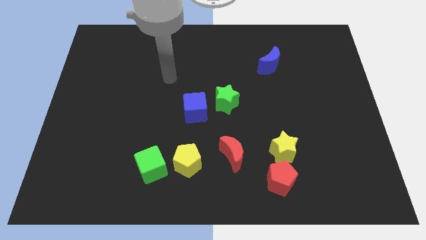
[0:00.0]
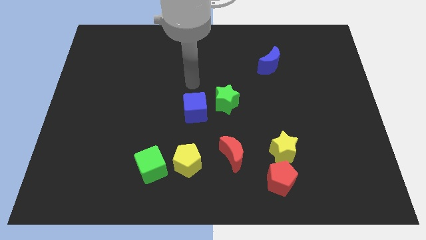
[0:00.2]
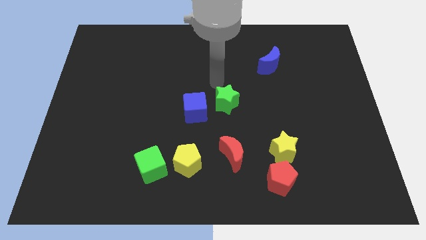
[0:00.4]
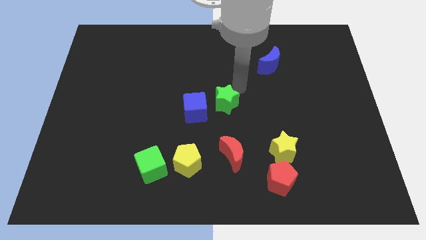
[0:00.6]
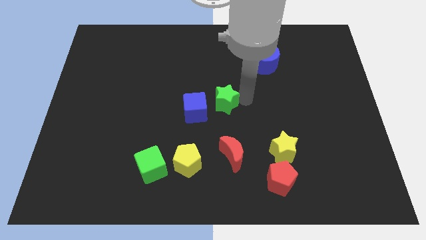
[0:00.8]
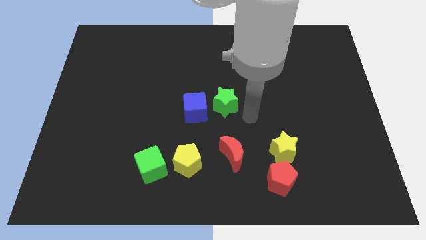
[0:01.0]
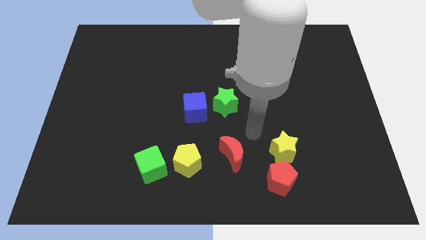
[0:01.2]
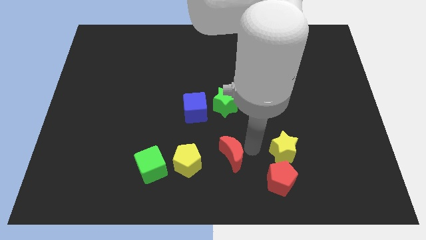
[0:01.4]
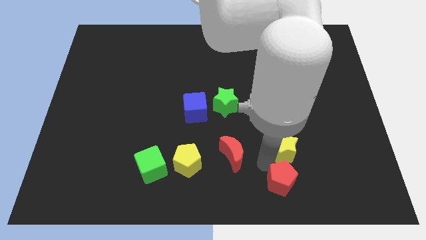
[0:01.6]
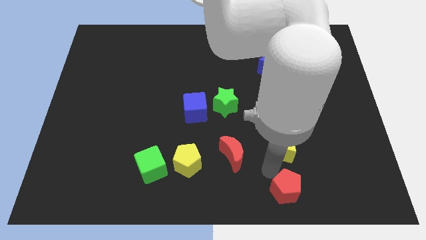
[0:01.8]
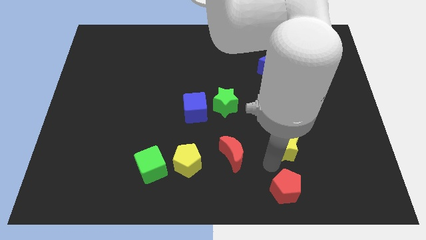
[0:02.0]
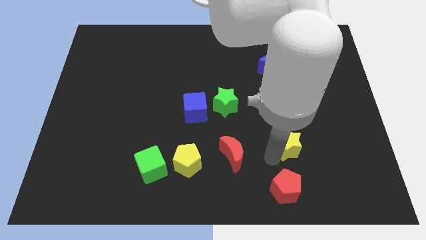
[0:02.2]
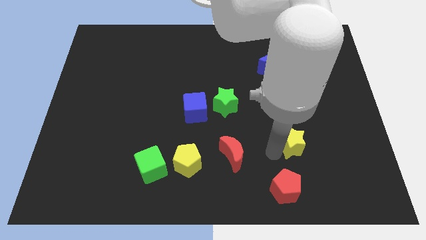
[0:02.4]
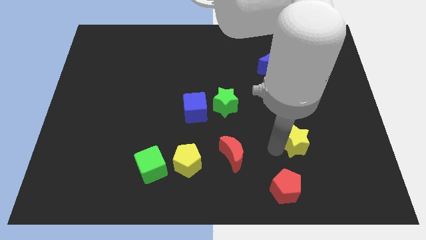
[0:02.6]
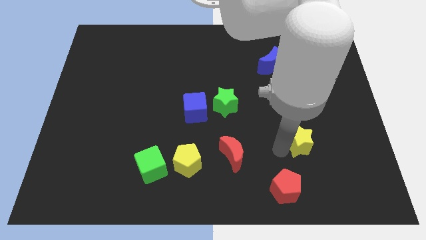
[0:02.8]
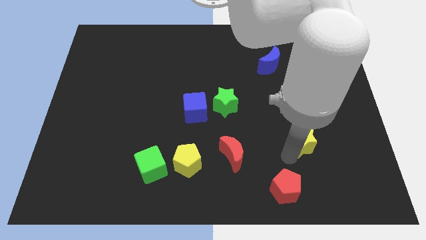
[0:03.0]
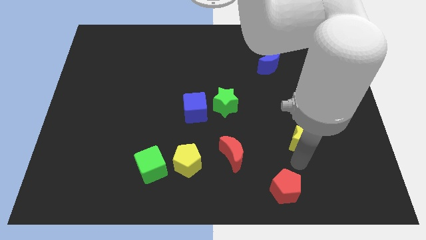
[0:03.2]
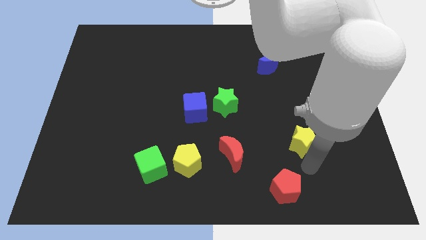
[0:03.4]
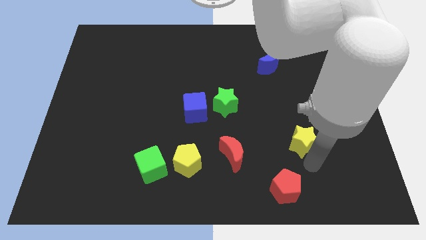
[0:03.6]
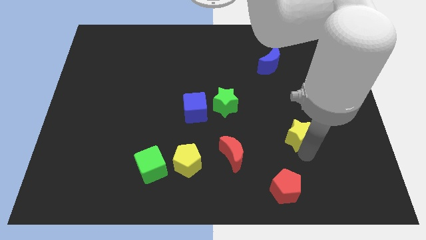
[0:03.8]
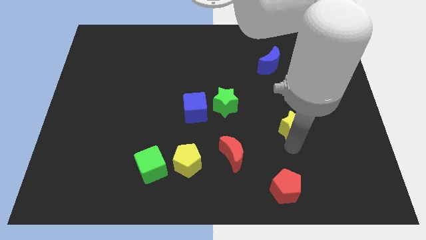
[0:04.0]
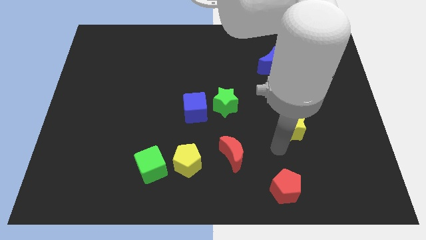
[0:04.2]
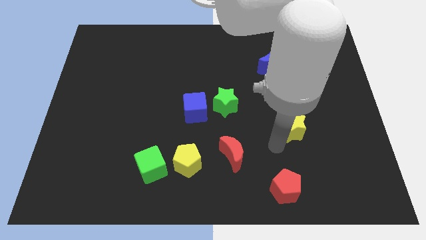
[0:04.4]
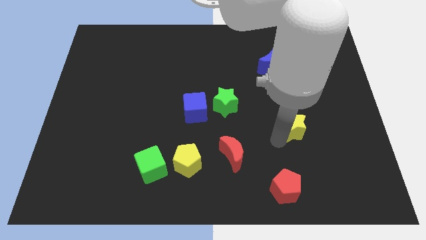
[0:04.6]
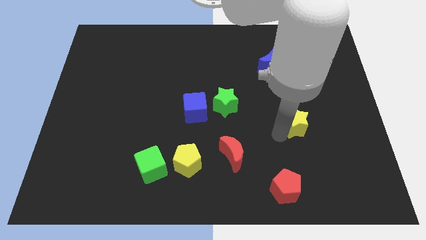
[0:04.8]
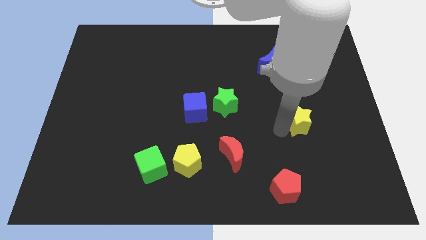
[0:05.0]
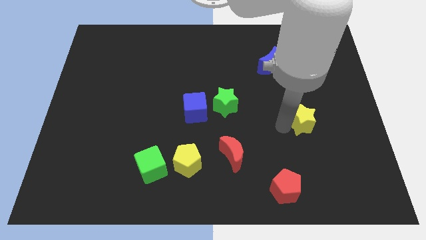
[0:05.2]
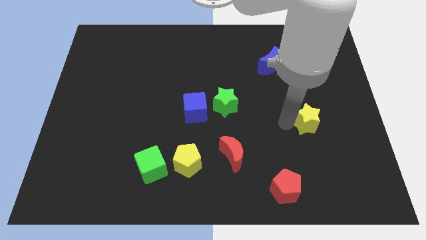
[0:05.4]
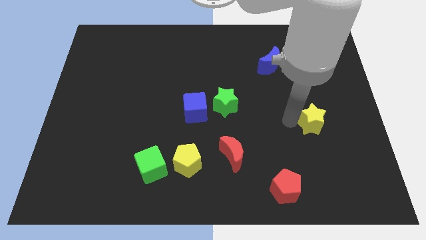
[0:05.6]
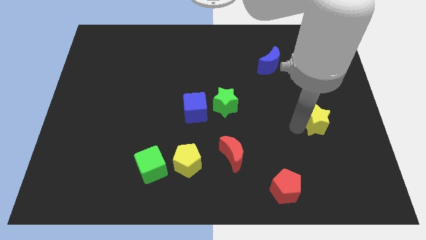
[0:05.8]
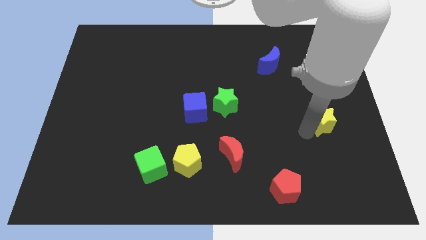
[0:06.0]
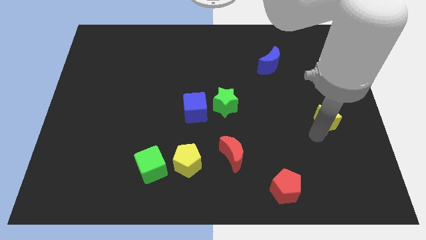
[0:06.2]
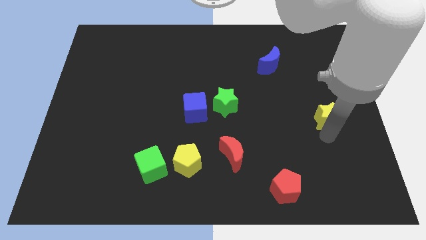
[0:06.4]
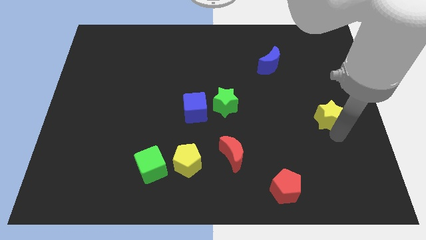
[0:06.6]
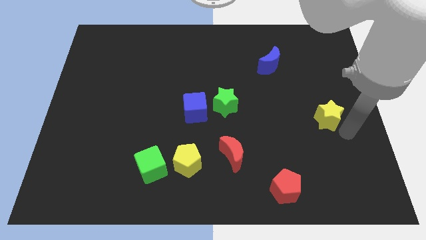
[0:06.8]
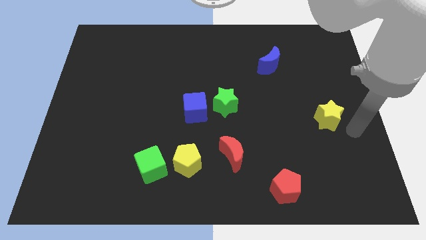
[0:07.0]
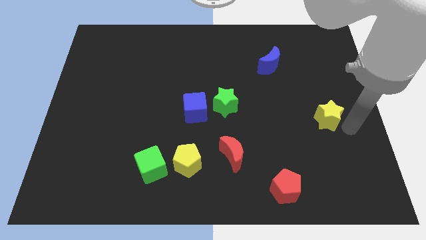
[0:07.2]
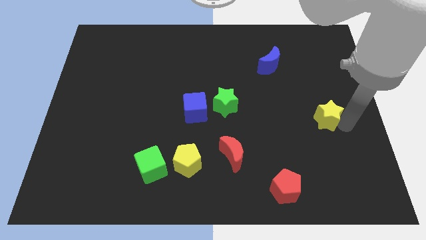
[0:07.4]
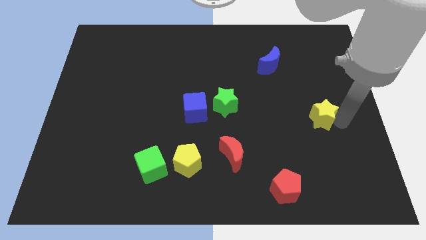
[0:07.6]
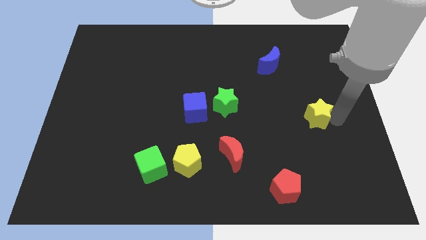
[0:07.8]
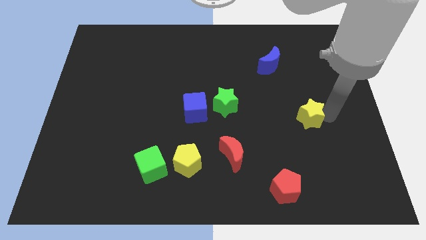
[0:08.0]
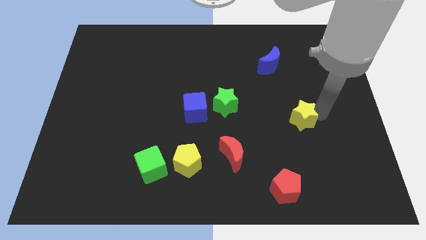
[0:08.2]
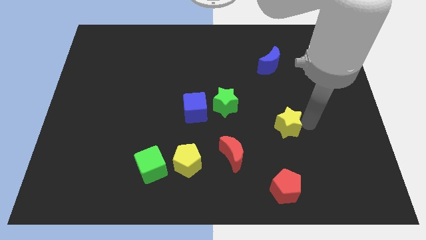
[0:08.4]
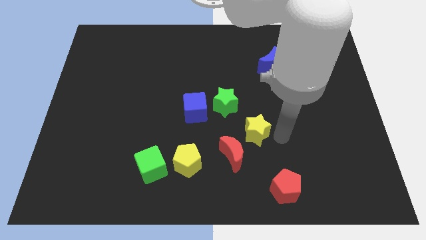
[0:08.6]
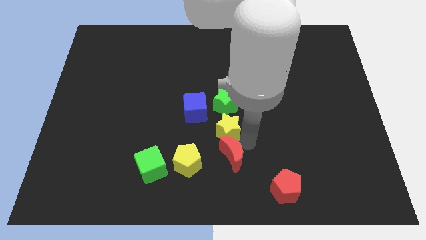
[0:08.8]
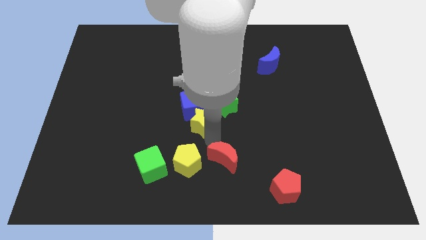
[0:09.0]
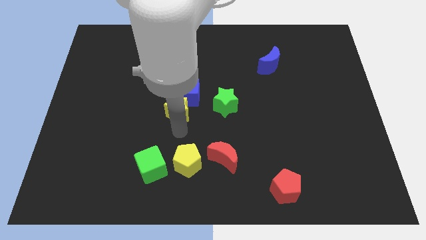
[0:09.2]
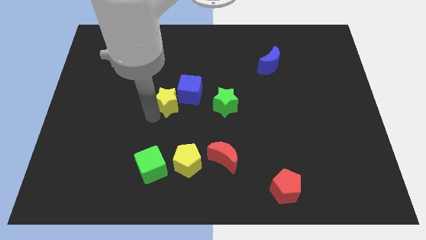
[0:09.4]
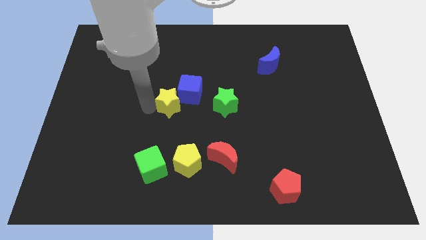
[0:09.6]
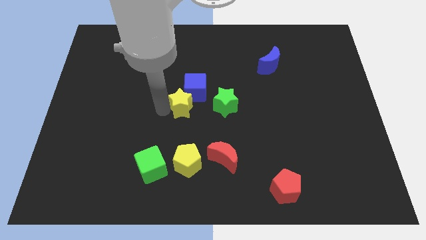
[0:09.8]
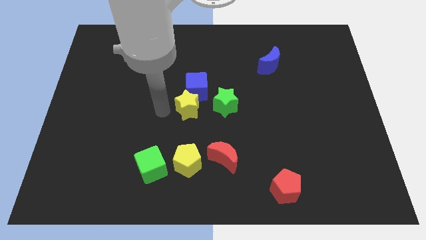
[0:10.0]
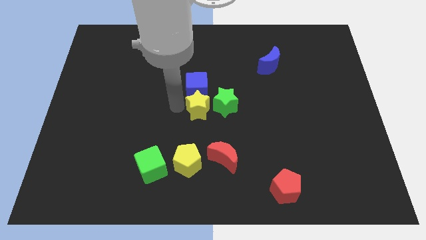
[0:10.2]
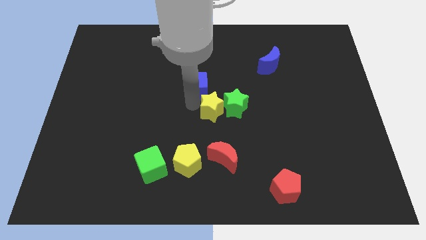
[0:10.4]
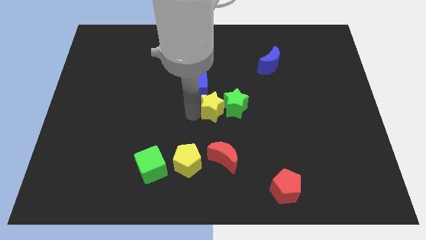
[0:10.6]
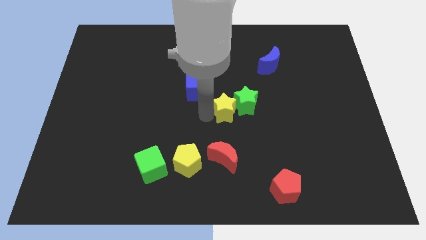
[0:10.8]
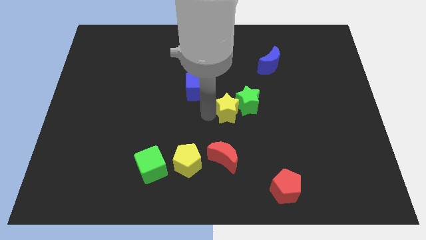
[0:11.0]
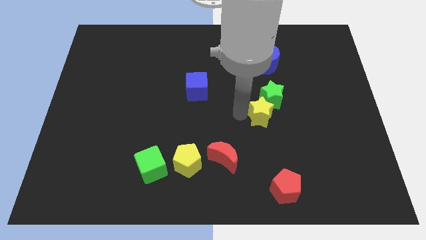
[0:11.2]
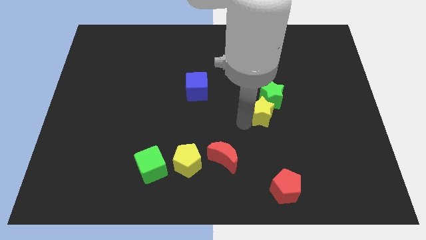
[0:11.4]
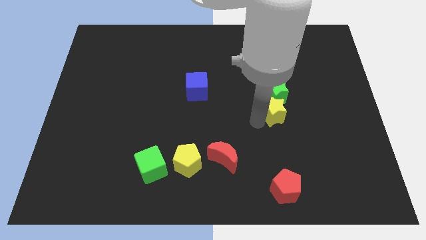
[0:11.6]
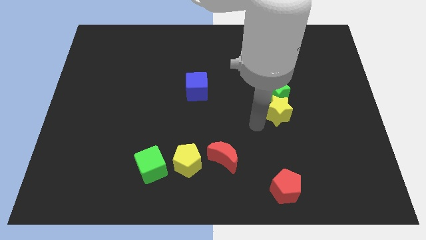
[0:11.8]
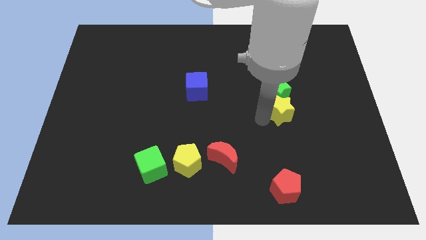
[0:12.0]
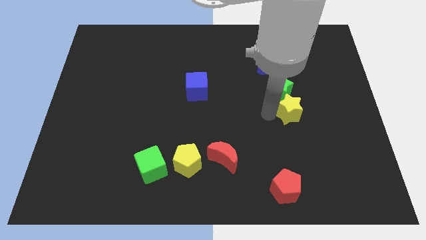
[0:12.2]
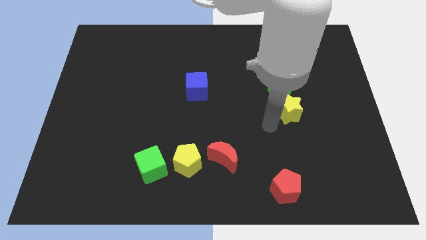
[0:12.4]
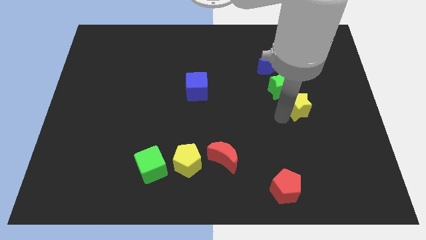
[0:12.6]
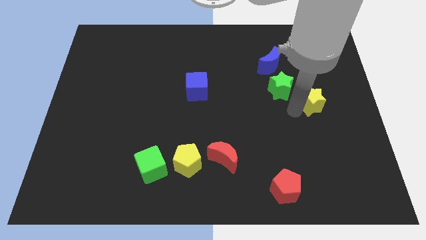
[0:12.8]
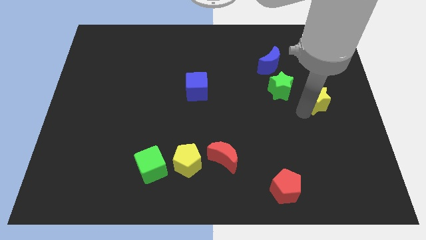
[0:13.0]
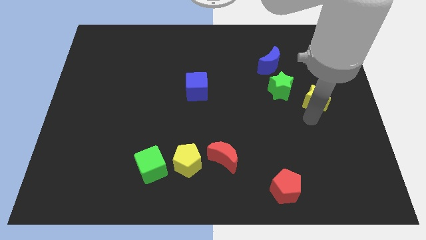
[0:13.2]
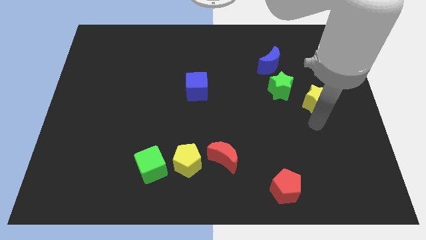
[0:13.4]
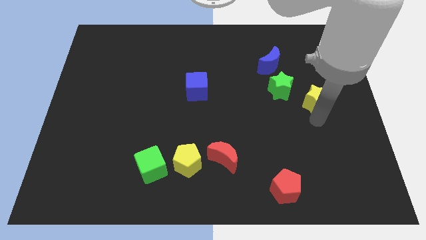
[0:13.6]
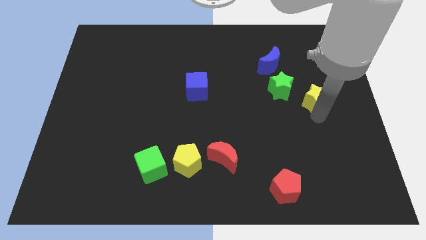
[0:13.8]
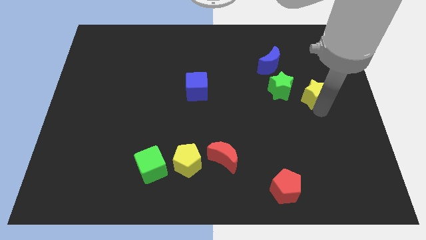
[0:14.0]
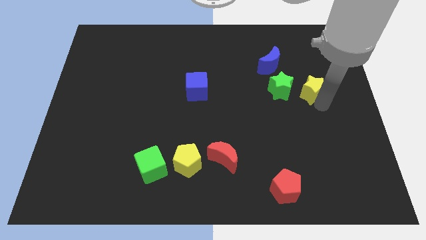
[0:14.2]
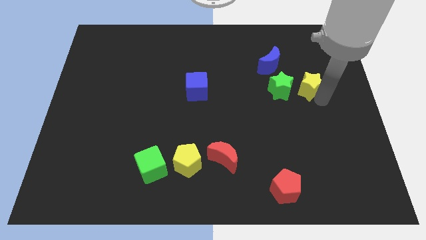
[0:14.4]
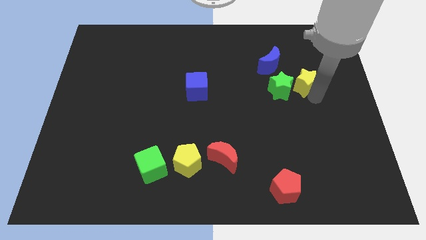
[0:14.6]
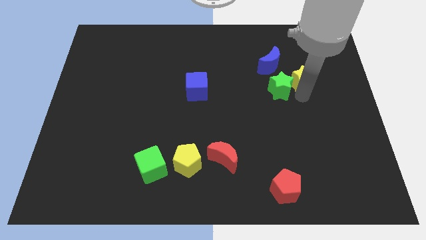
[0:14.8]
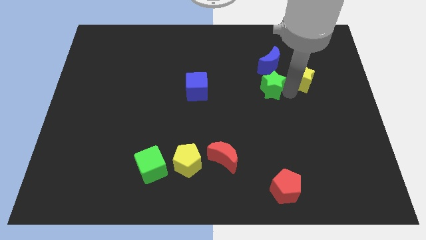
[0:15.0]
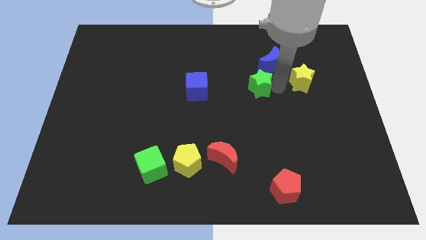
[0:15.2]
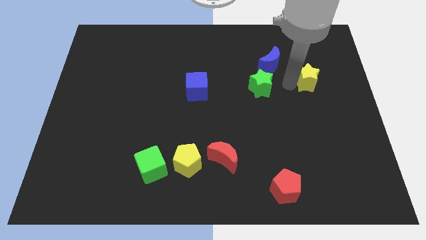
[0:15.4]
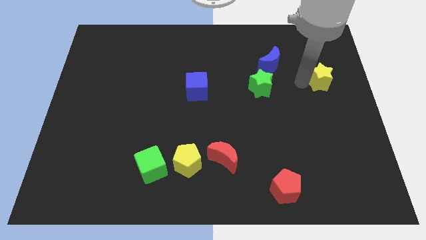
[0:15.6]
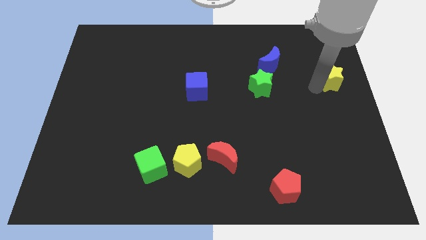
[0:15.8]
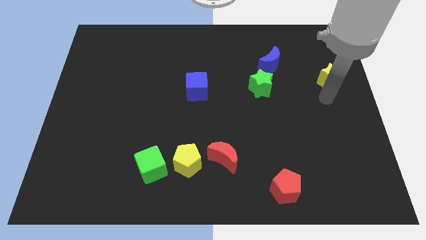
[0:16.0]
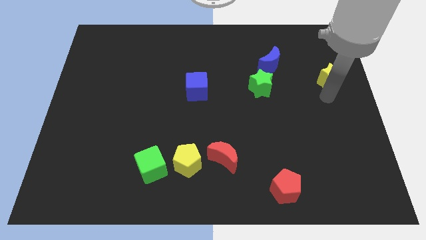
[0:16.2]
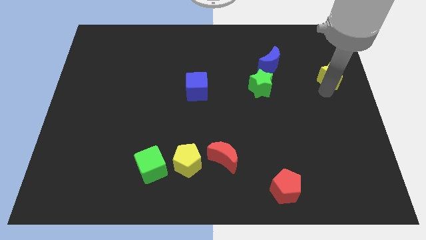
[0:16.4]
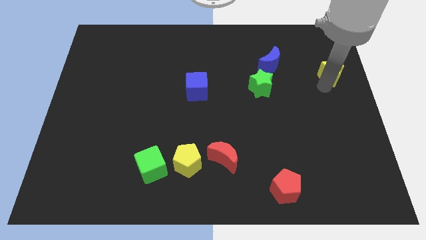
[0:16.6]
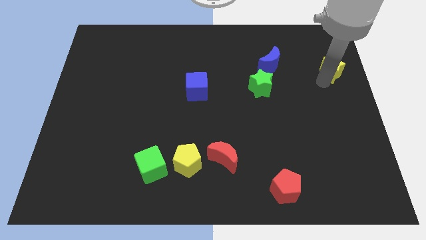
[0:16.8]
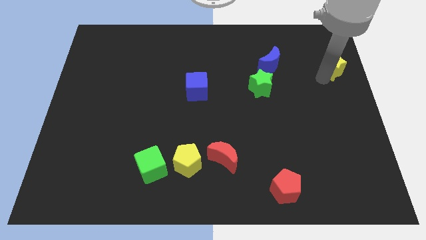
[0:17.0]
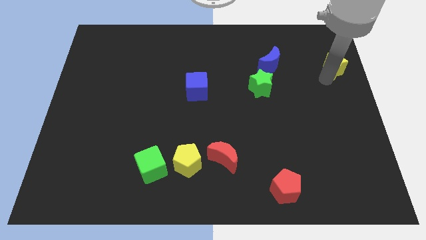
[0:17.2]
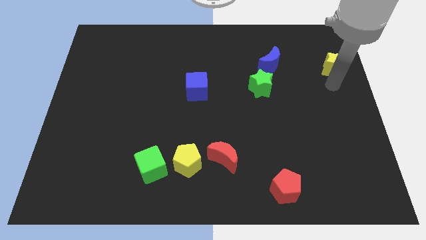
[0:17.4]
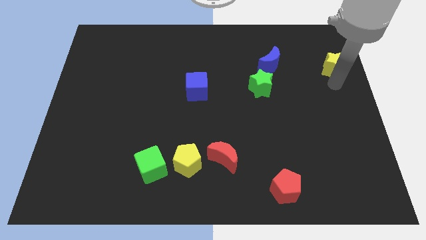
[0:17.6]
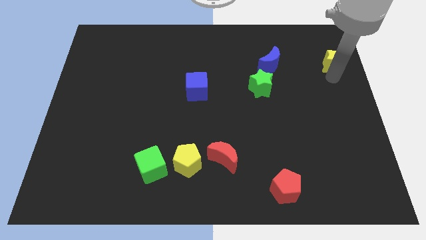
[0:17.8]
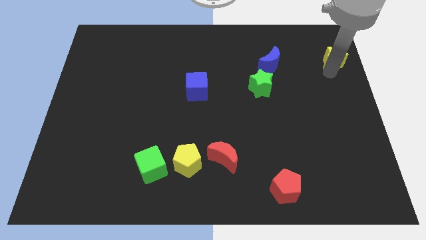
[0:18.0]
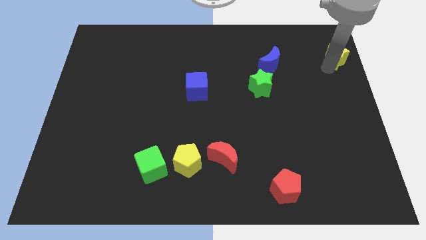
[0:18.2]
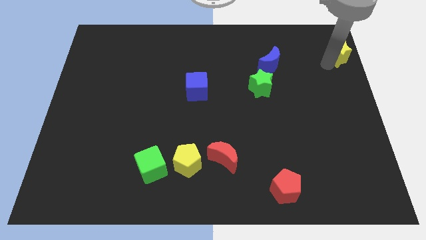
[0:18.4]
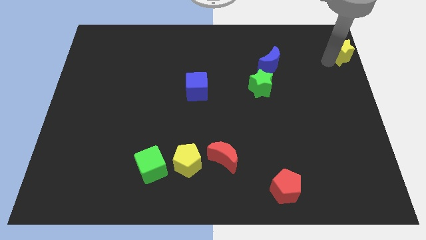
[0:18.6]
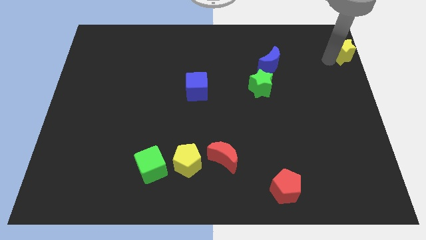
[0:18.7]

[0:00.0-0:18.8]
push the yellow star to the top right
